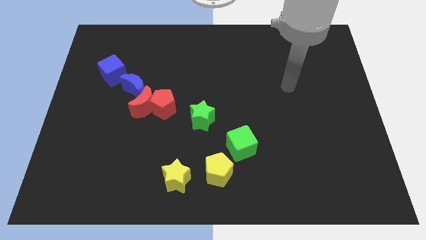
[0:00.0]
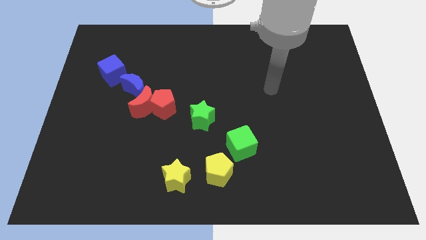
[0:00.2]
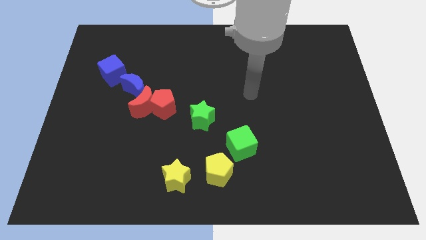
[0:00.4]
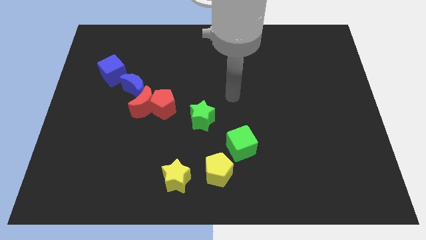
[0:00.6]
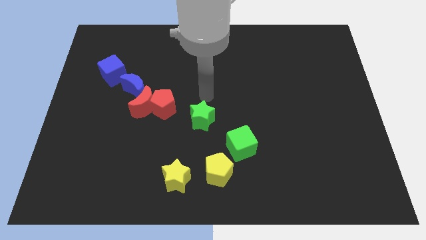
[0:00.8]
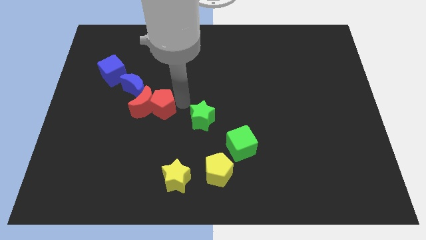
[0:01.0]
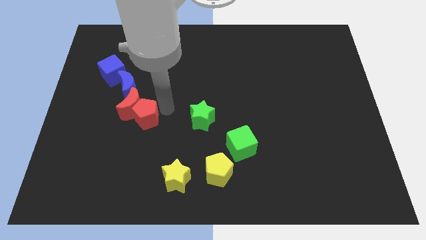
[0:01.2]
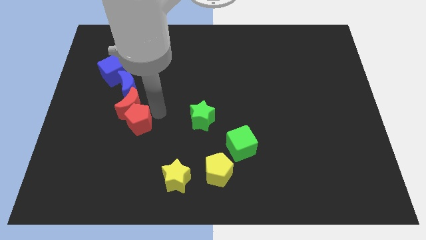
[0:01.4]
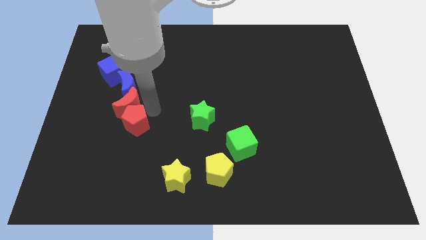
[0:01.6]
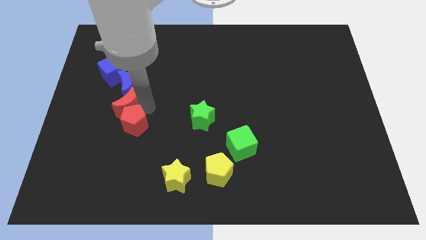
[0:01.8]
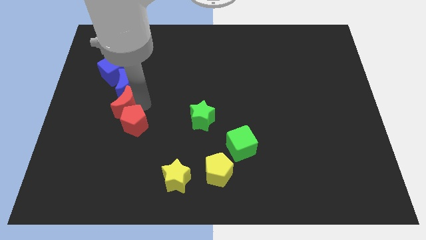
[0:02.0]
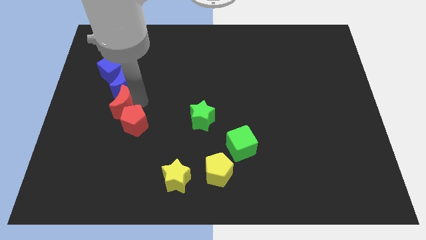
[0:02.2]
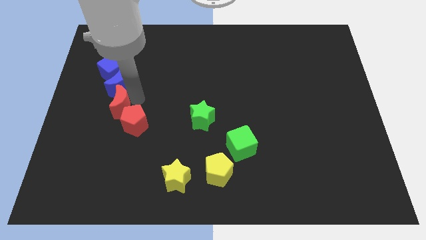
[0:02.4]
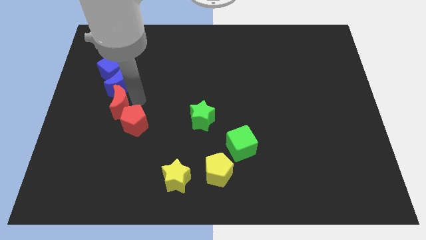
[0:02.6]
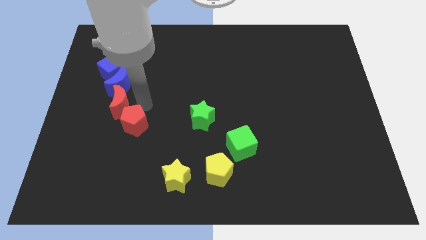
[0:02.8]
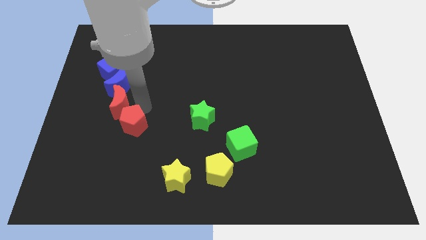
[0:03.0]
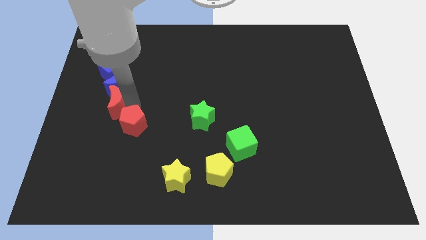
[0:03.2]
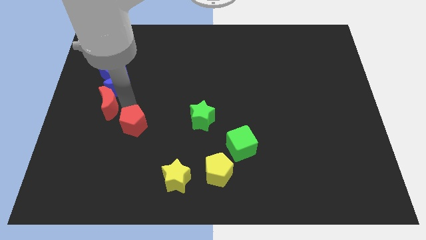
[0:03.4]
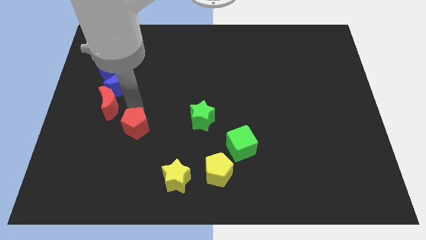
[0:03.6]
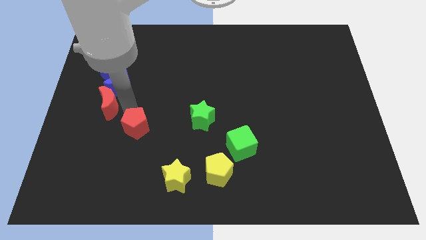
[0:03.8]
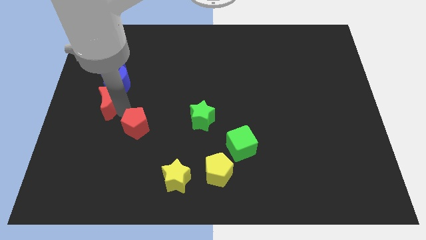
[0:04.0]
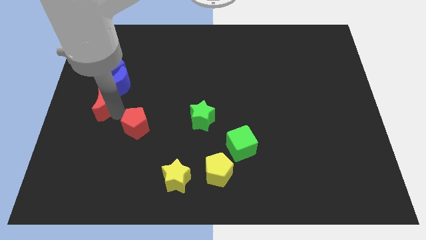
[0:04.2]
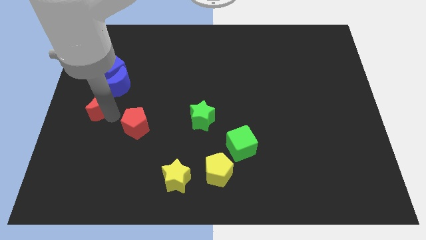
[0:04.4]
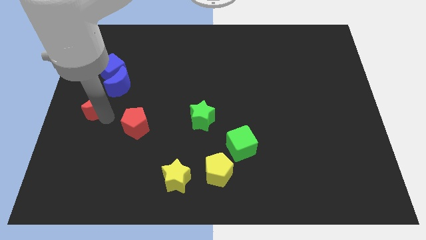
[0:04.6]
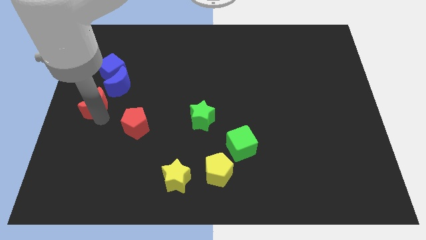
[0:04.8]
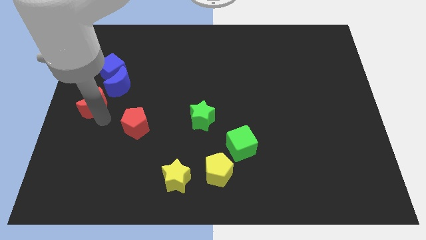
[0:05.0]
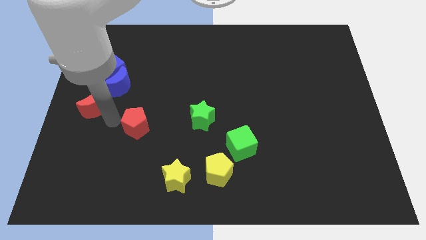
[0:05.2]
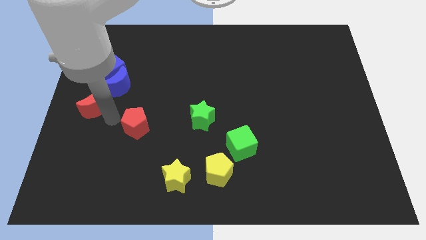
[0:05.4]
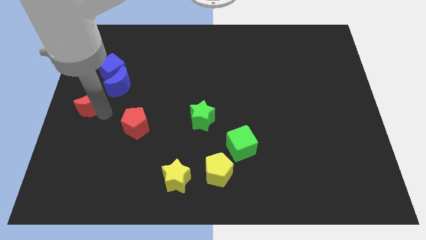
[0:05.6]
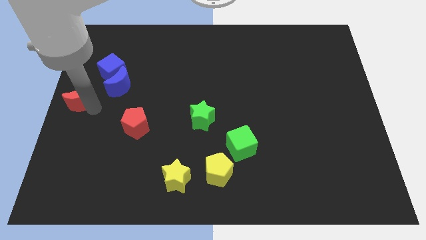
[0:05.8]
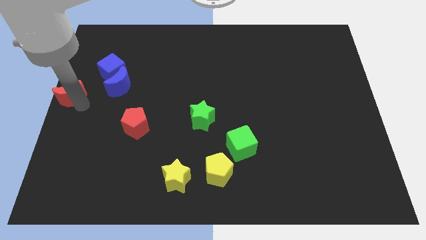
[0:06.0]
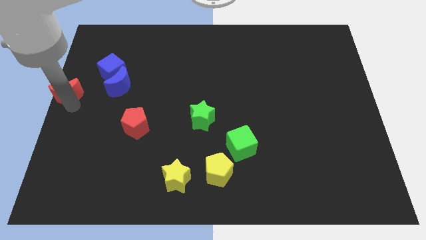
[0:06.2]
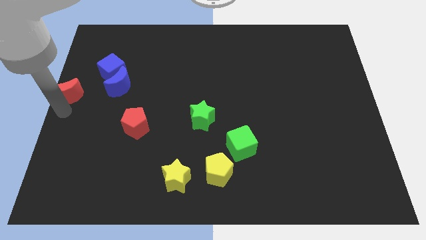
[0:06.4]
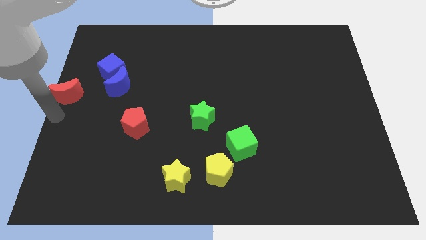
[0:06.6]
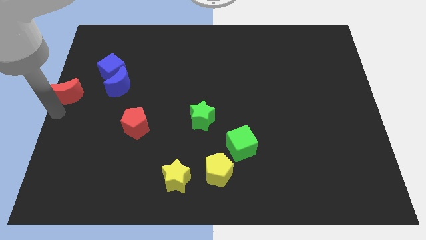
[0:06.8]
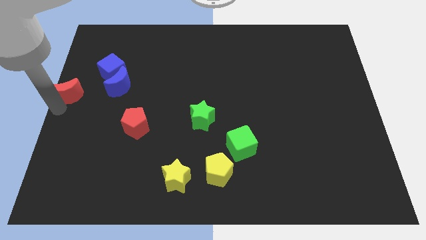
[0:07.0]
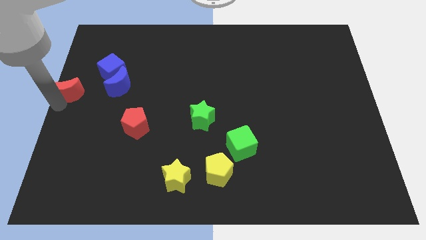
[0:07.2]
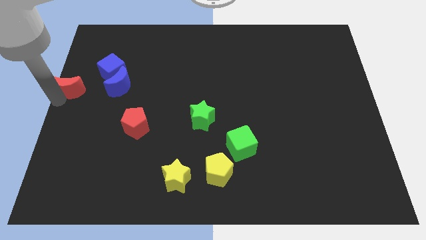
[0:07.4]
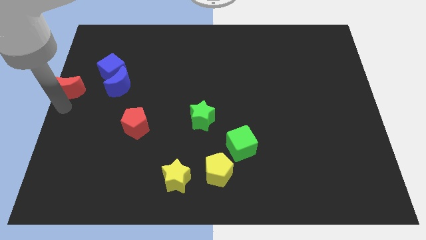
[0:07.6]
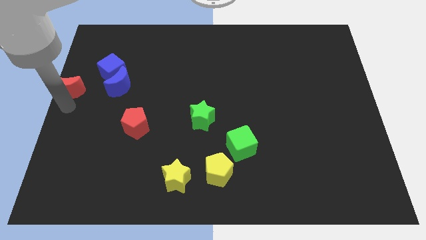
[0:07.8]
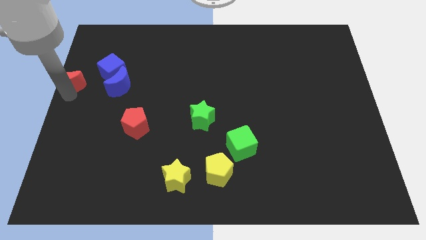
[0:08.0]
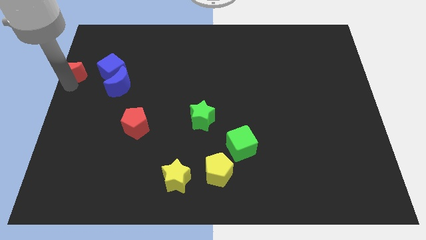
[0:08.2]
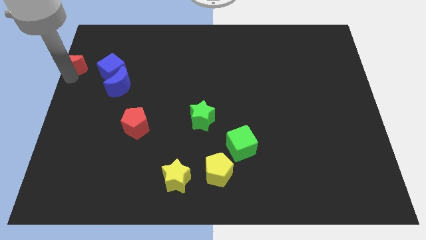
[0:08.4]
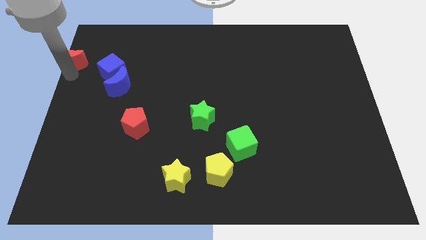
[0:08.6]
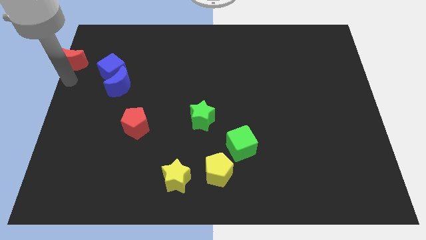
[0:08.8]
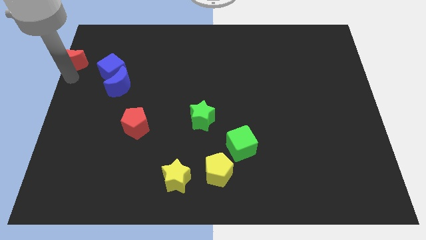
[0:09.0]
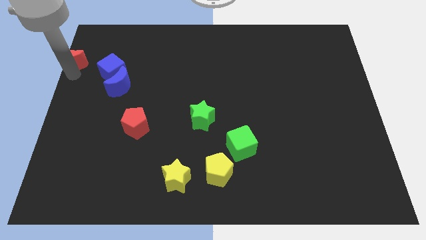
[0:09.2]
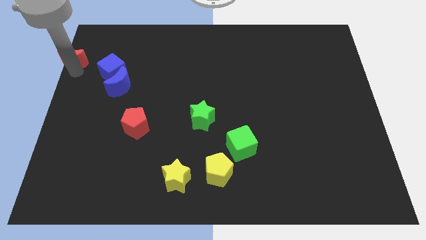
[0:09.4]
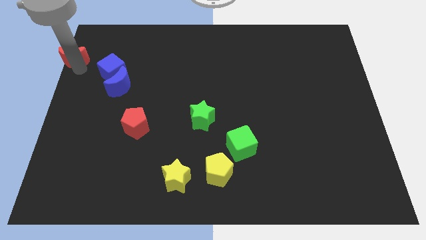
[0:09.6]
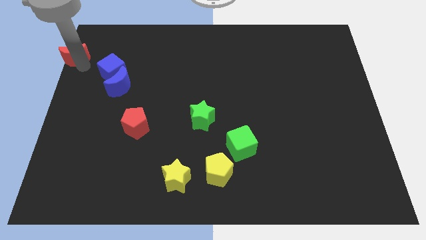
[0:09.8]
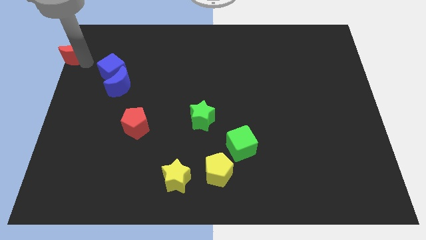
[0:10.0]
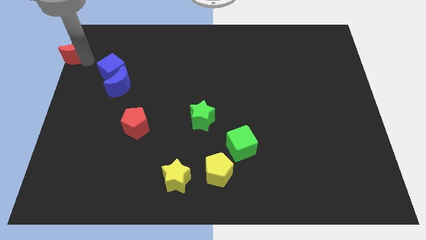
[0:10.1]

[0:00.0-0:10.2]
put the red moon to the top left

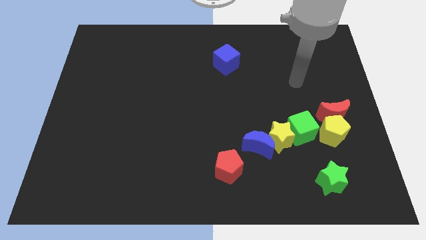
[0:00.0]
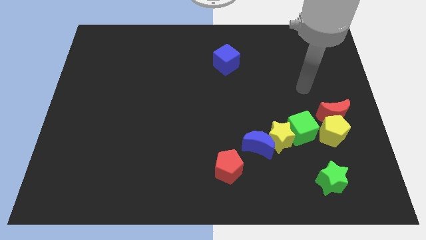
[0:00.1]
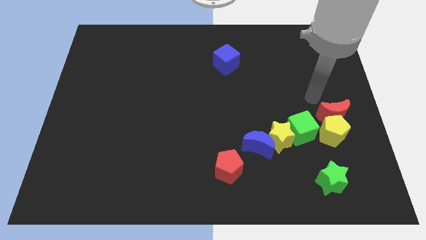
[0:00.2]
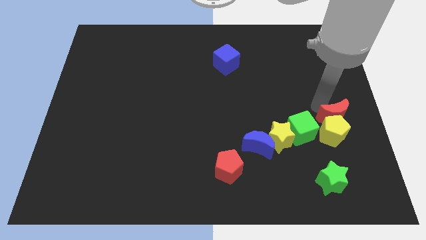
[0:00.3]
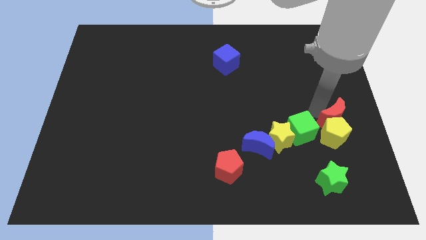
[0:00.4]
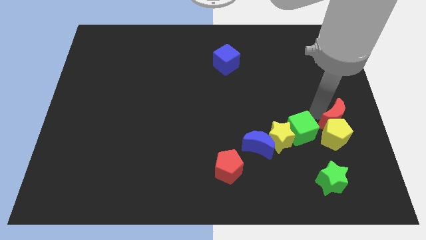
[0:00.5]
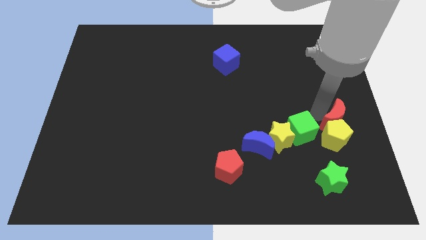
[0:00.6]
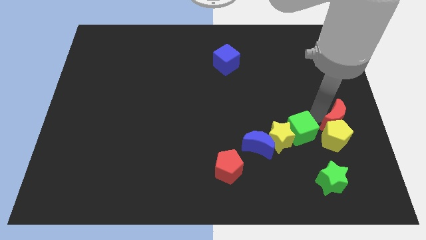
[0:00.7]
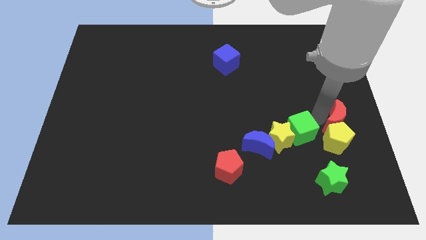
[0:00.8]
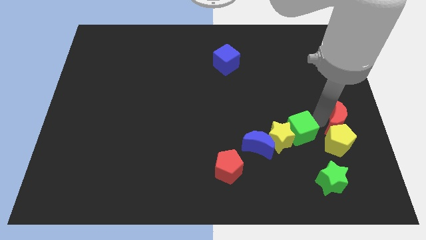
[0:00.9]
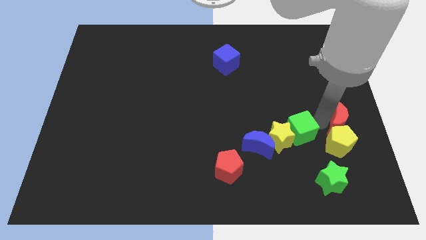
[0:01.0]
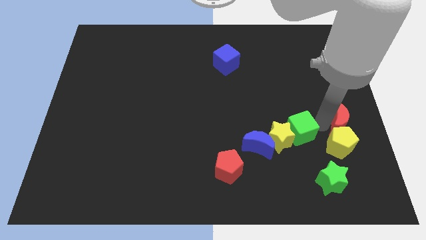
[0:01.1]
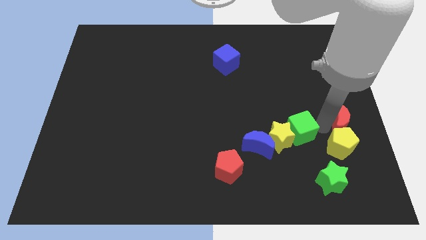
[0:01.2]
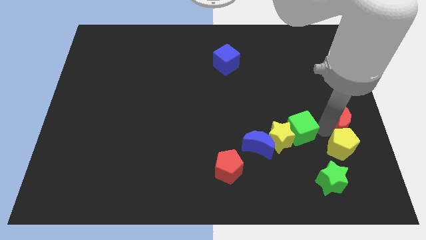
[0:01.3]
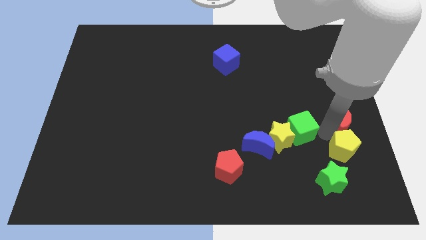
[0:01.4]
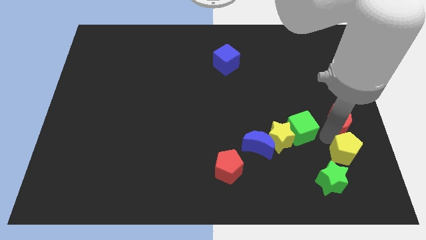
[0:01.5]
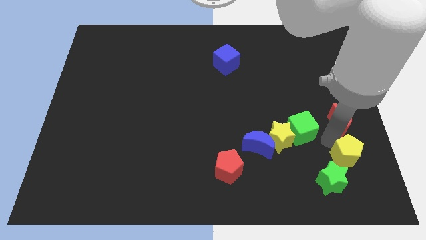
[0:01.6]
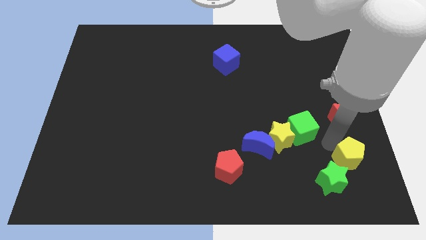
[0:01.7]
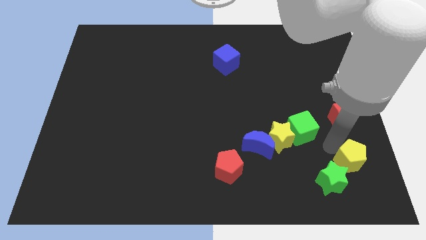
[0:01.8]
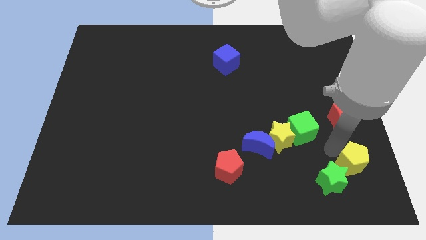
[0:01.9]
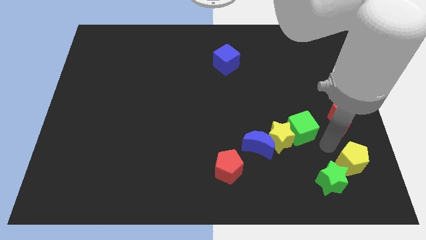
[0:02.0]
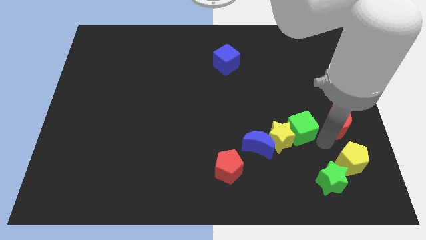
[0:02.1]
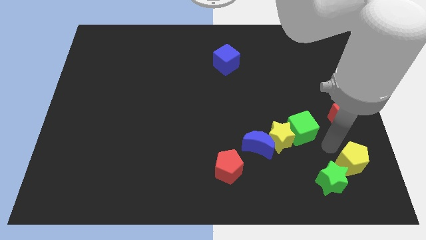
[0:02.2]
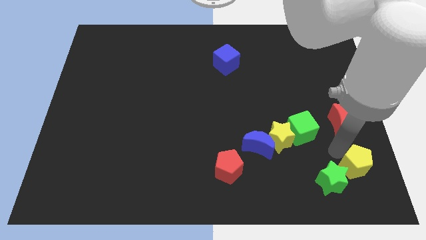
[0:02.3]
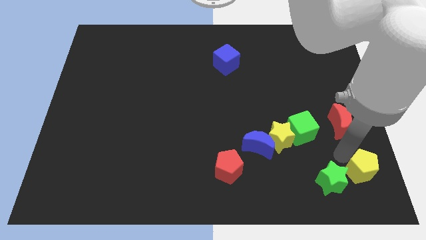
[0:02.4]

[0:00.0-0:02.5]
slide the yellow pentagon to the bottom right of the board
